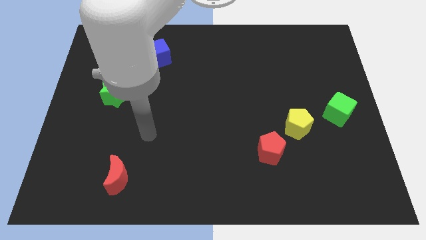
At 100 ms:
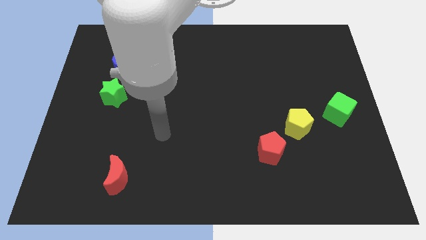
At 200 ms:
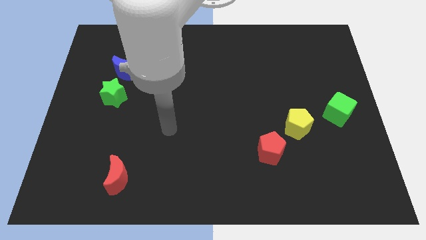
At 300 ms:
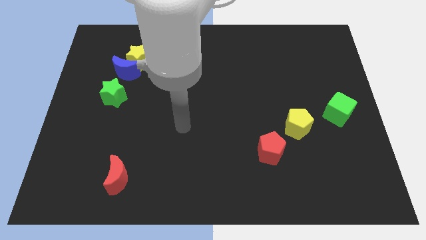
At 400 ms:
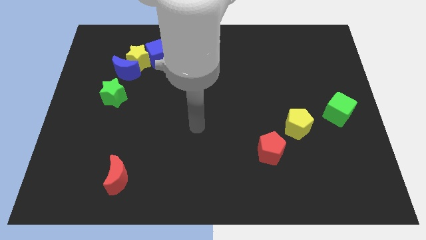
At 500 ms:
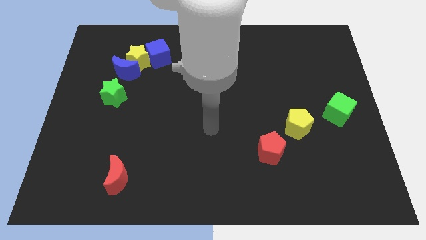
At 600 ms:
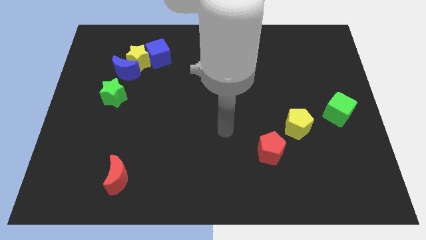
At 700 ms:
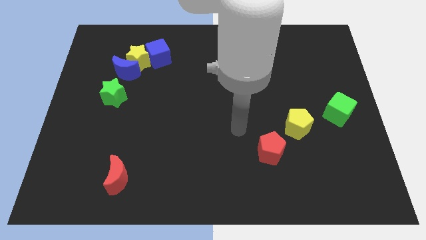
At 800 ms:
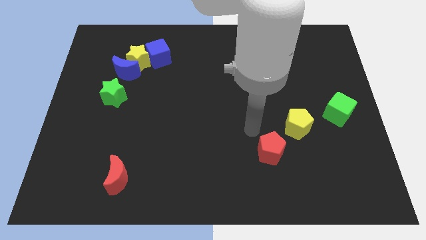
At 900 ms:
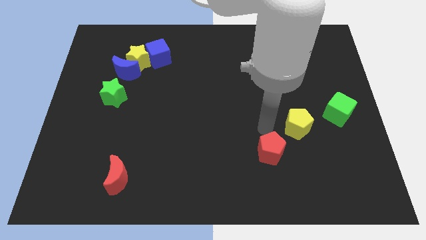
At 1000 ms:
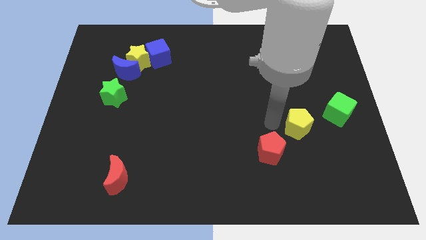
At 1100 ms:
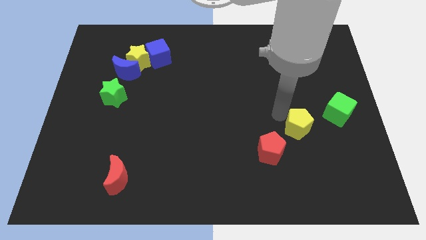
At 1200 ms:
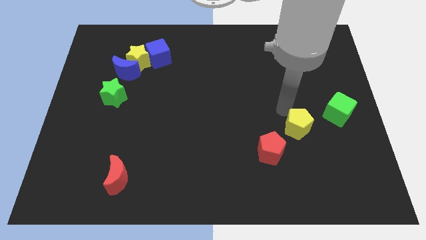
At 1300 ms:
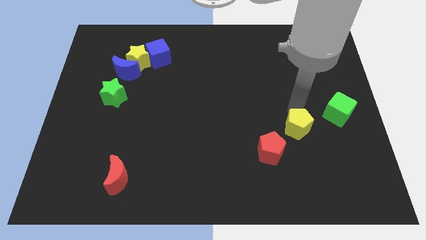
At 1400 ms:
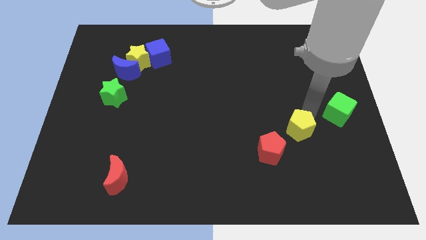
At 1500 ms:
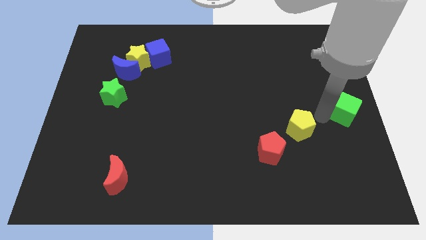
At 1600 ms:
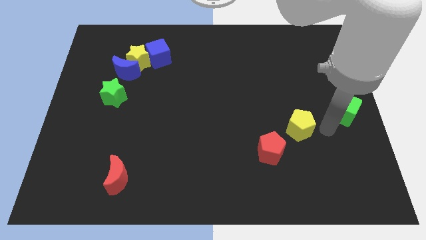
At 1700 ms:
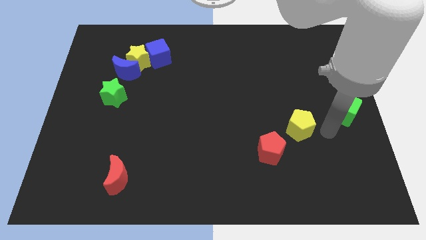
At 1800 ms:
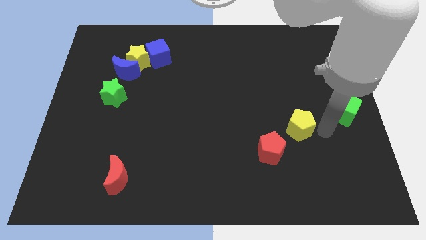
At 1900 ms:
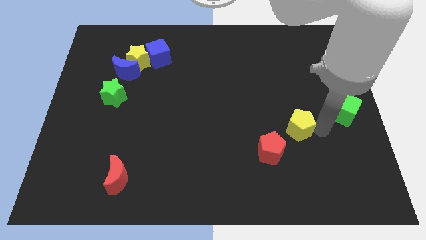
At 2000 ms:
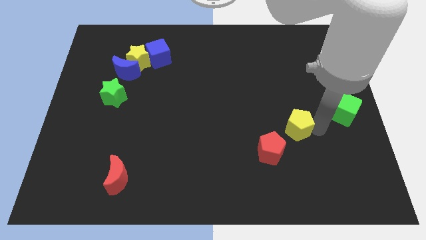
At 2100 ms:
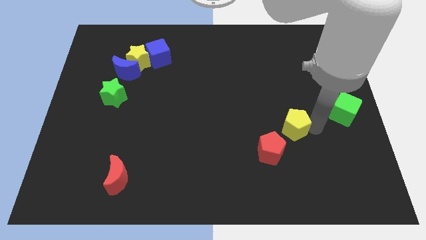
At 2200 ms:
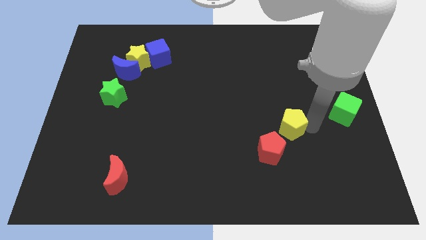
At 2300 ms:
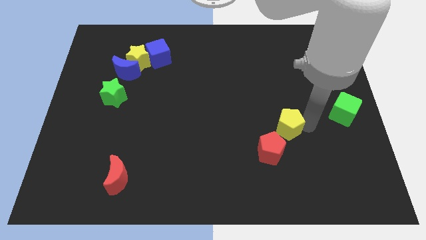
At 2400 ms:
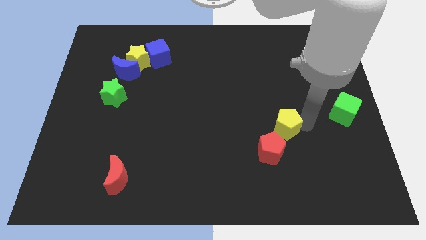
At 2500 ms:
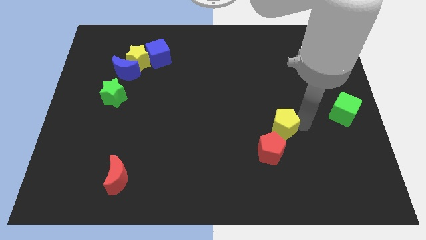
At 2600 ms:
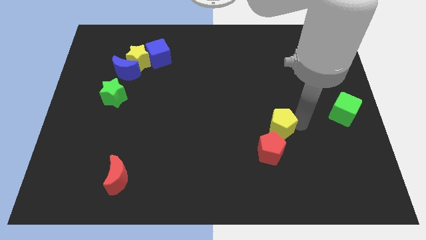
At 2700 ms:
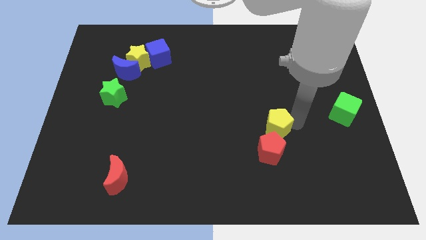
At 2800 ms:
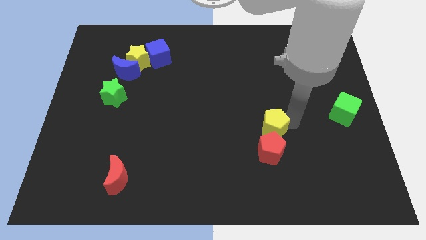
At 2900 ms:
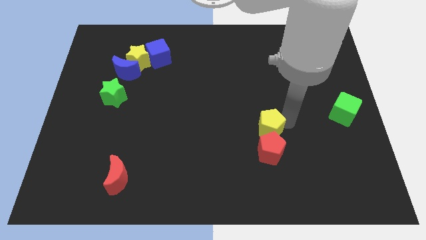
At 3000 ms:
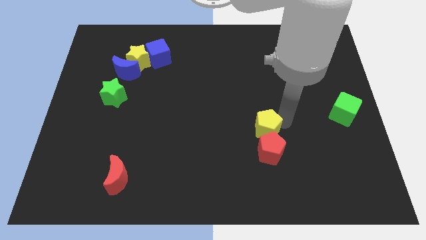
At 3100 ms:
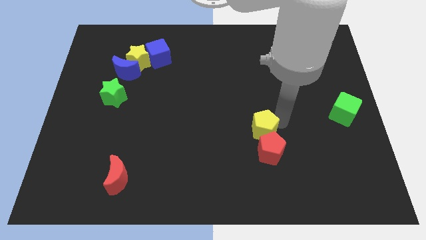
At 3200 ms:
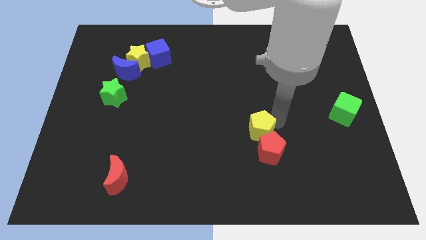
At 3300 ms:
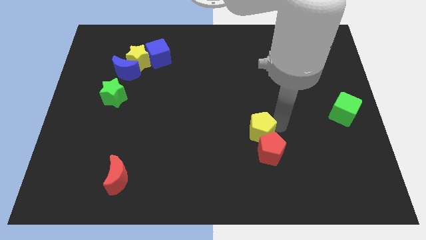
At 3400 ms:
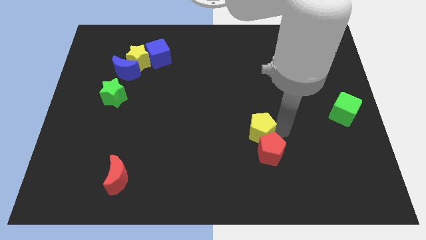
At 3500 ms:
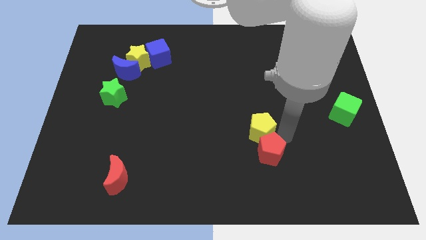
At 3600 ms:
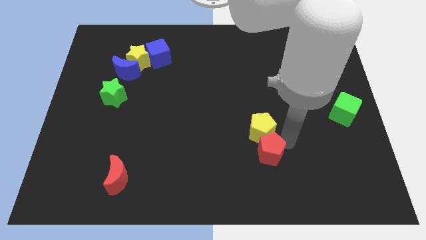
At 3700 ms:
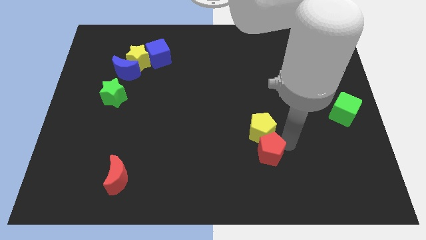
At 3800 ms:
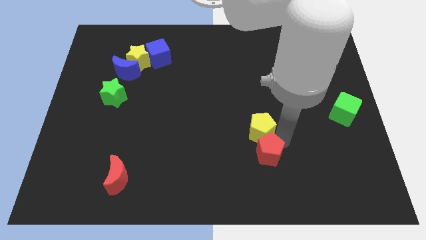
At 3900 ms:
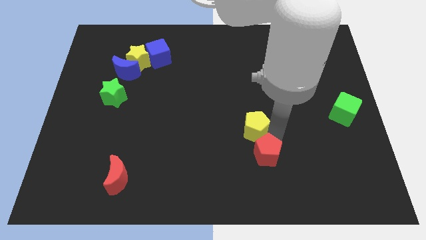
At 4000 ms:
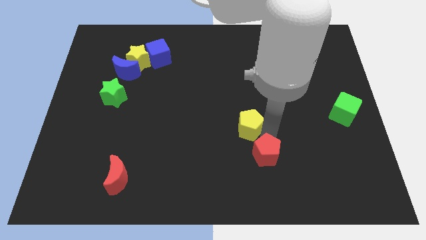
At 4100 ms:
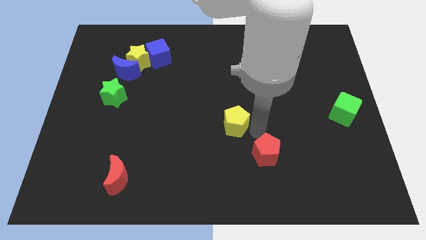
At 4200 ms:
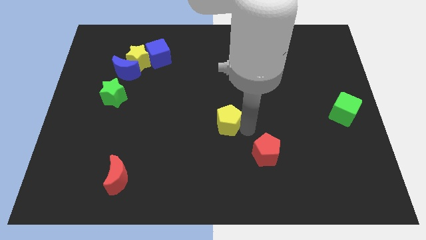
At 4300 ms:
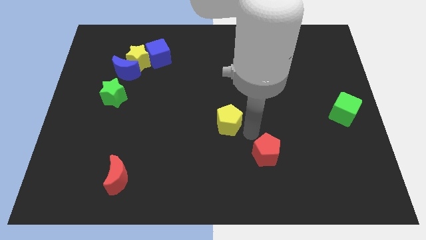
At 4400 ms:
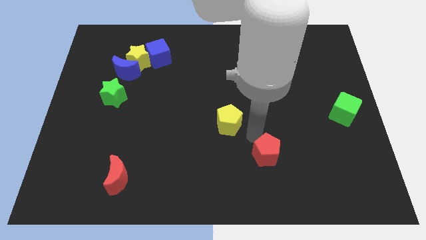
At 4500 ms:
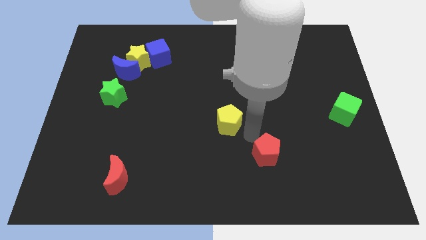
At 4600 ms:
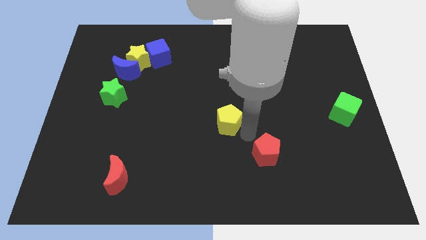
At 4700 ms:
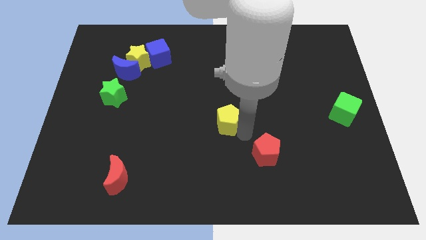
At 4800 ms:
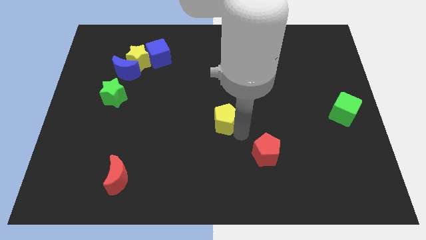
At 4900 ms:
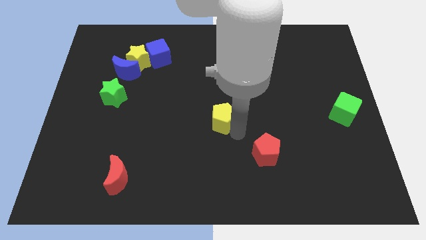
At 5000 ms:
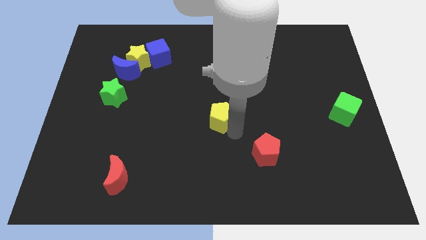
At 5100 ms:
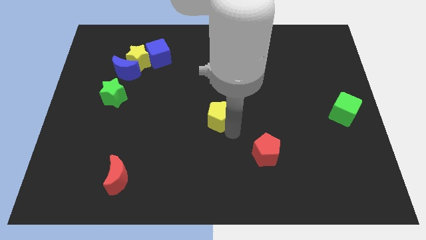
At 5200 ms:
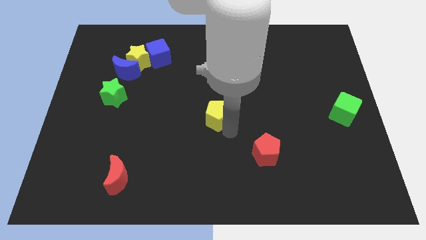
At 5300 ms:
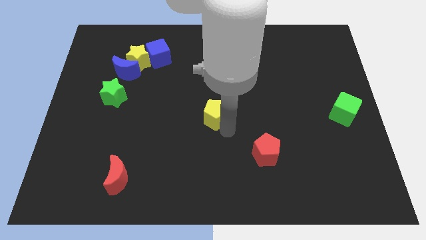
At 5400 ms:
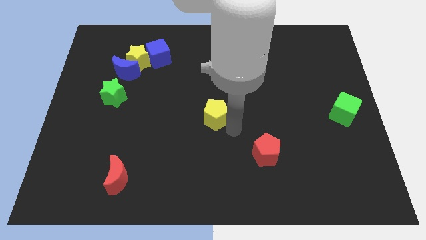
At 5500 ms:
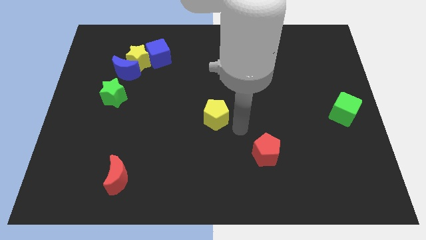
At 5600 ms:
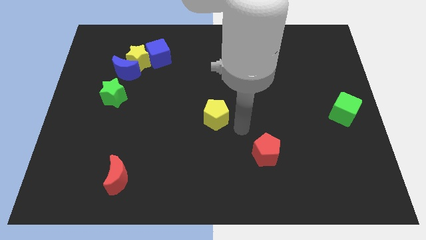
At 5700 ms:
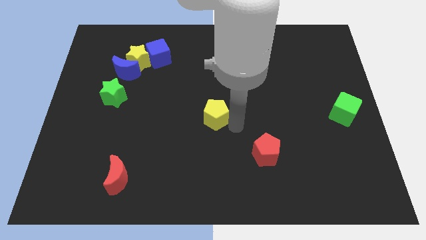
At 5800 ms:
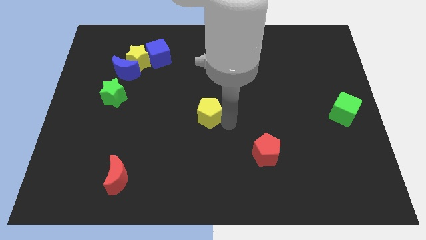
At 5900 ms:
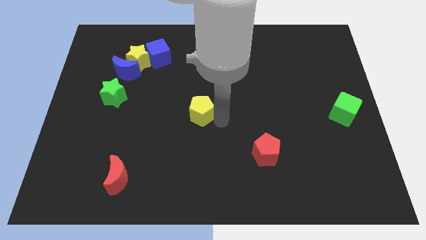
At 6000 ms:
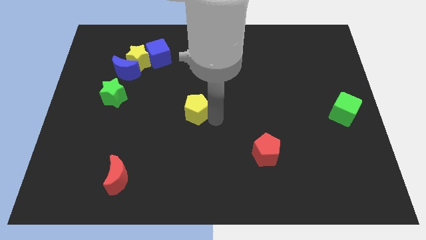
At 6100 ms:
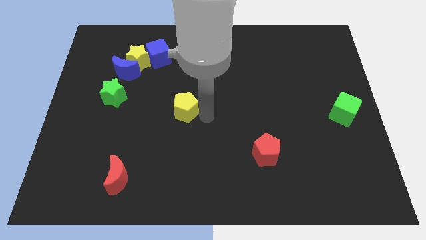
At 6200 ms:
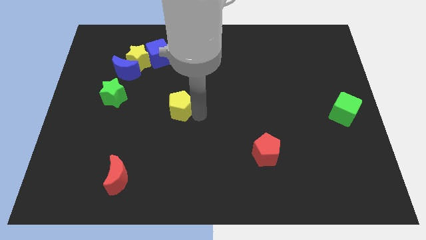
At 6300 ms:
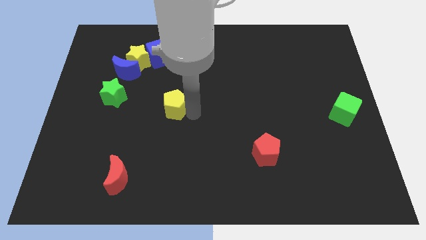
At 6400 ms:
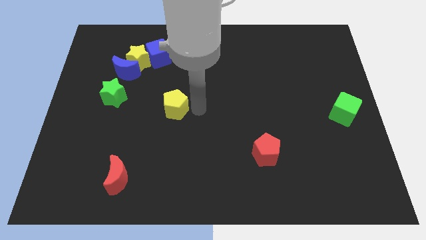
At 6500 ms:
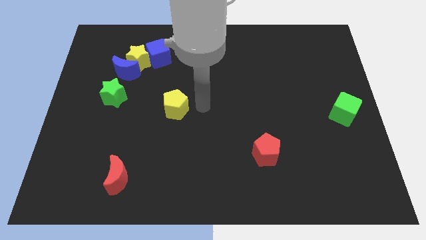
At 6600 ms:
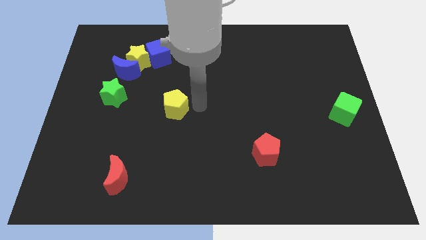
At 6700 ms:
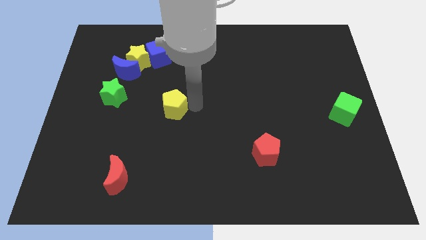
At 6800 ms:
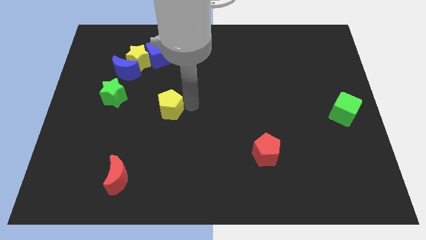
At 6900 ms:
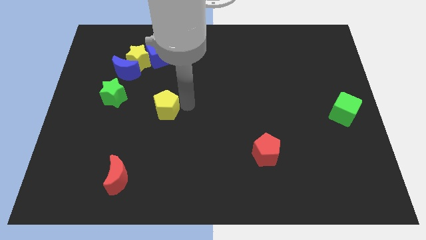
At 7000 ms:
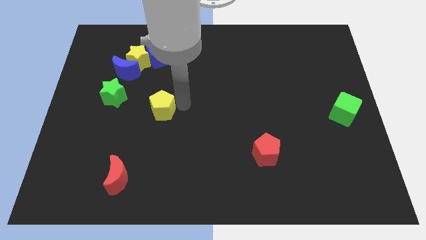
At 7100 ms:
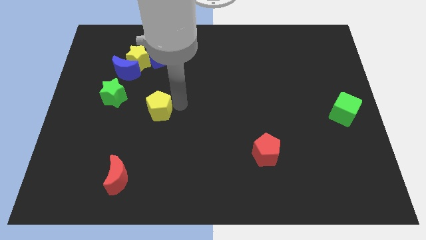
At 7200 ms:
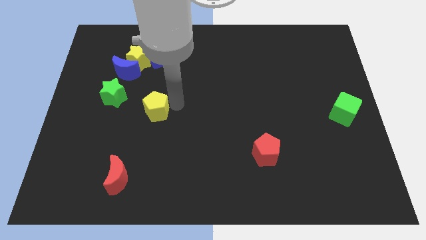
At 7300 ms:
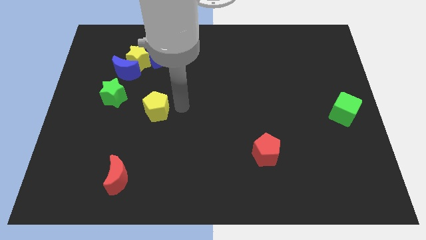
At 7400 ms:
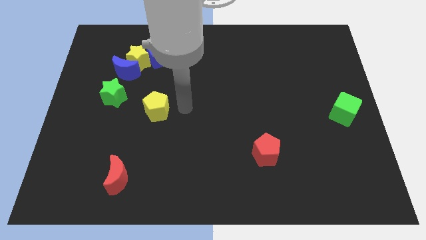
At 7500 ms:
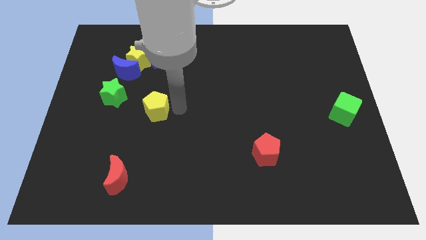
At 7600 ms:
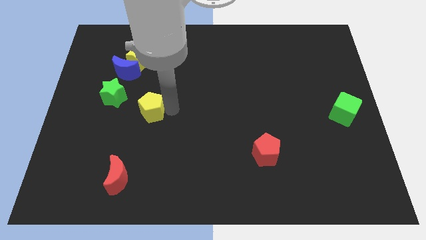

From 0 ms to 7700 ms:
move the yellow pentagon diagonally down and to the right of the green star
